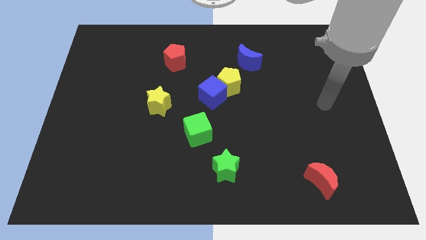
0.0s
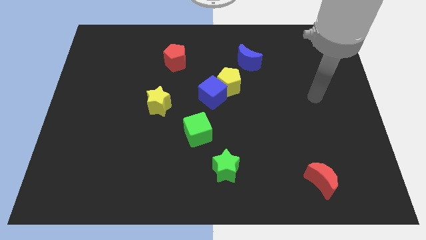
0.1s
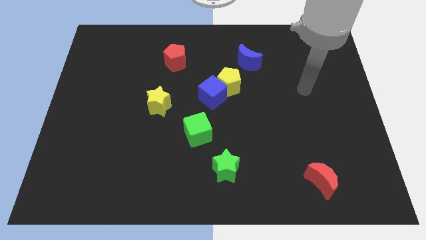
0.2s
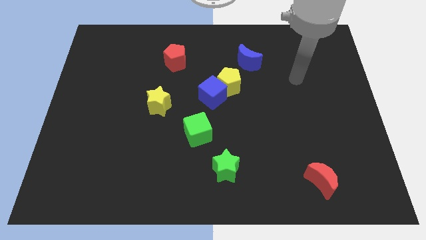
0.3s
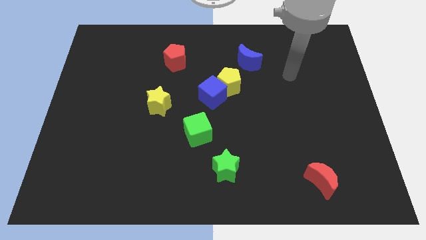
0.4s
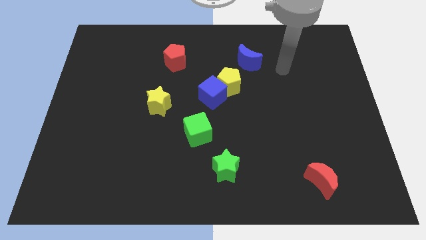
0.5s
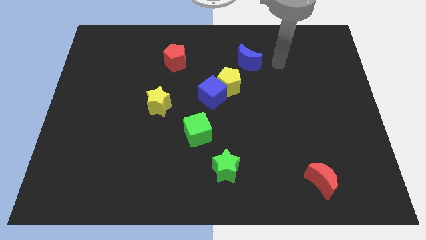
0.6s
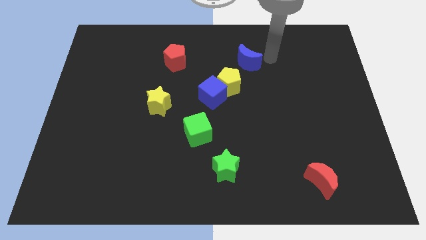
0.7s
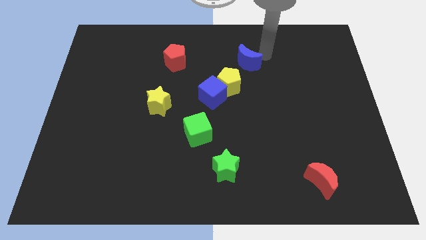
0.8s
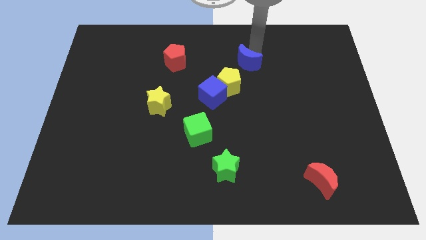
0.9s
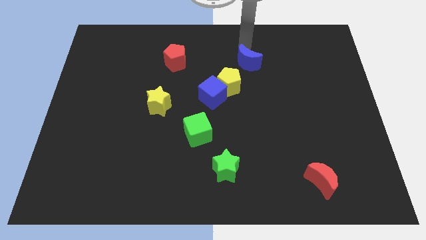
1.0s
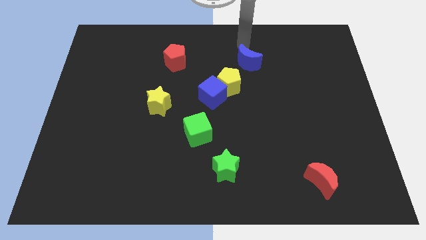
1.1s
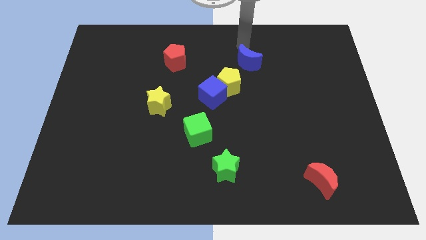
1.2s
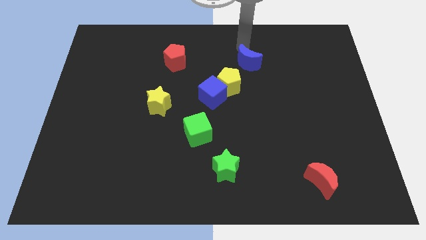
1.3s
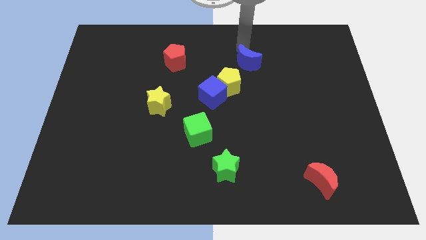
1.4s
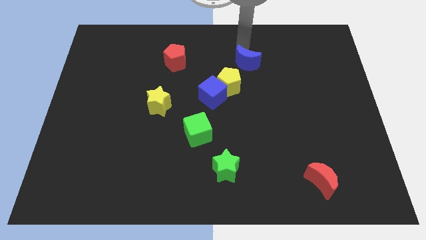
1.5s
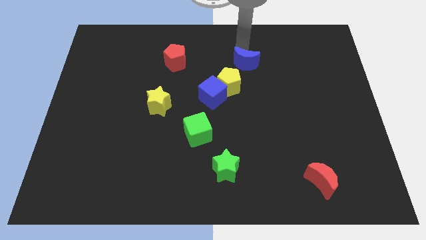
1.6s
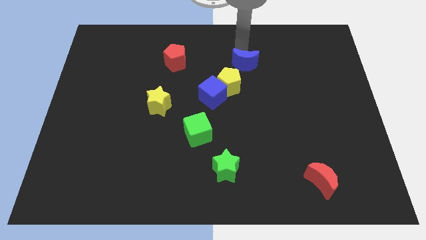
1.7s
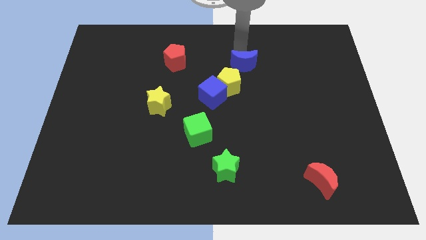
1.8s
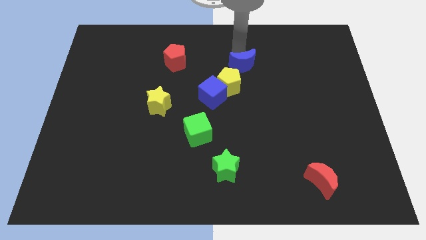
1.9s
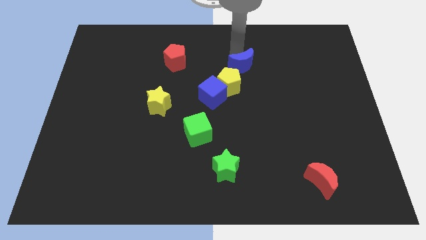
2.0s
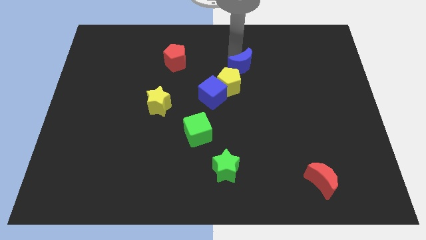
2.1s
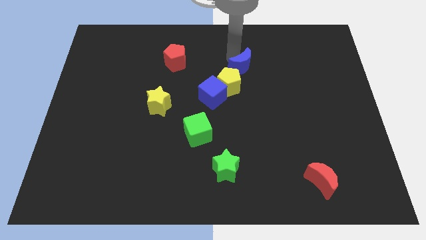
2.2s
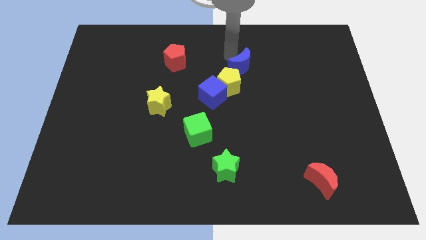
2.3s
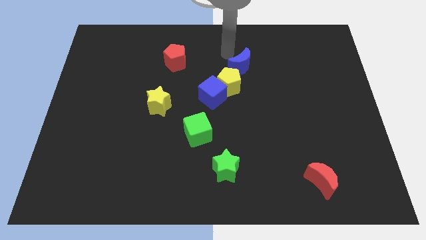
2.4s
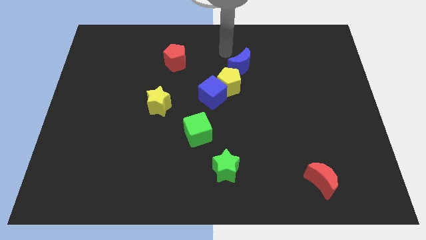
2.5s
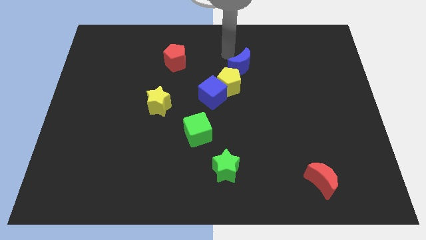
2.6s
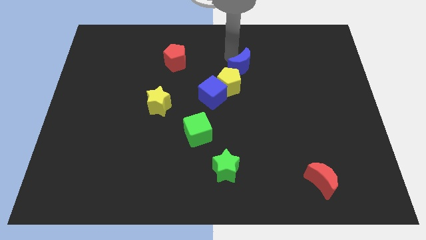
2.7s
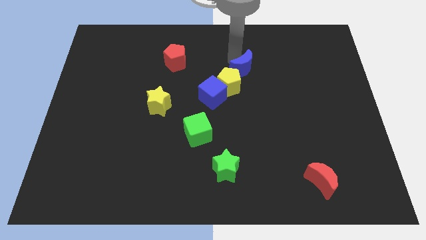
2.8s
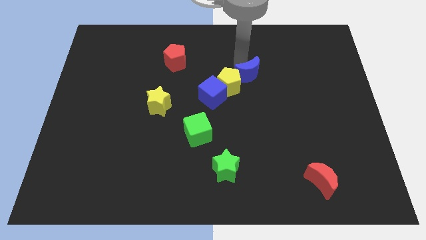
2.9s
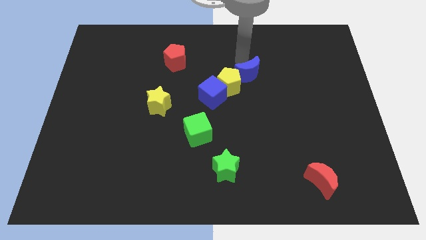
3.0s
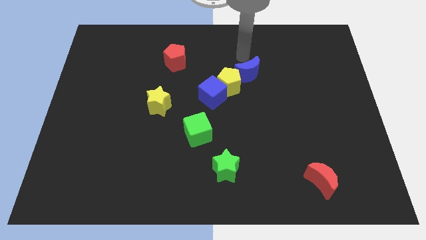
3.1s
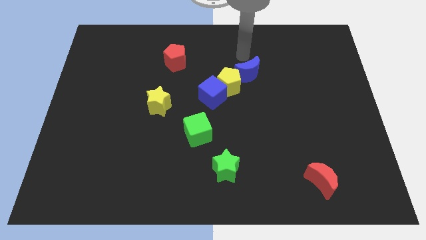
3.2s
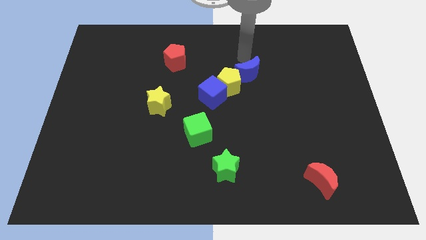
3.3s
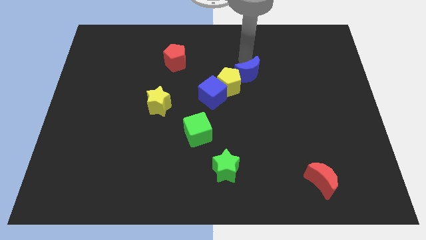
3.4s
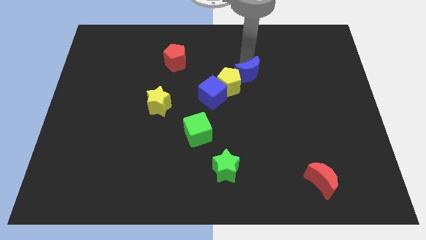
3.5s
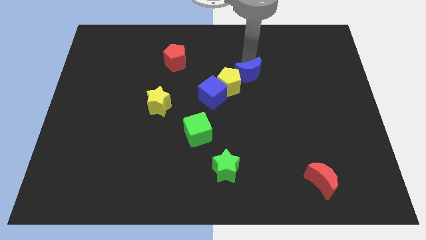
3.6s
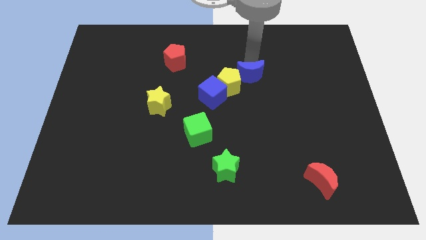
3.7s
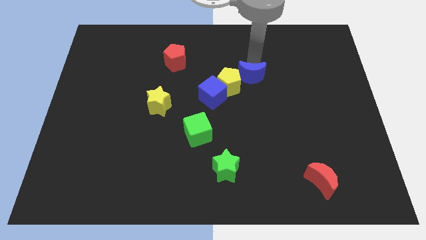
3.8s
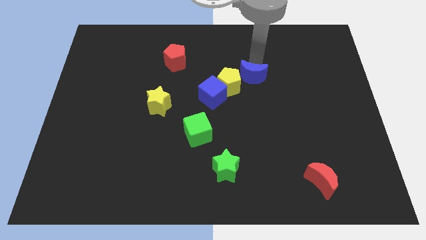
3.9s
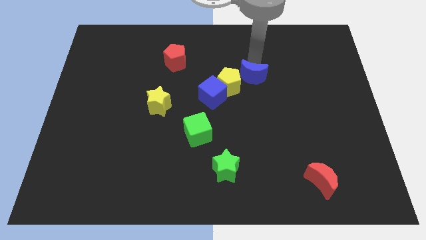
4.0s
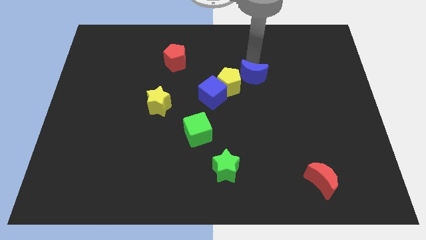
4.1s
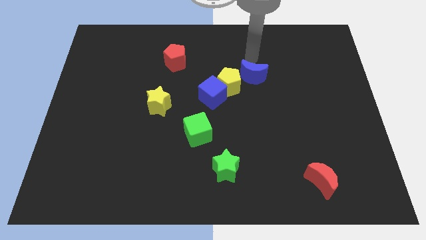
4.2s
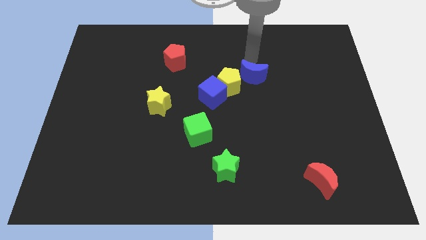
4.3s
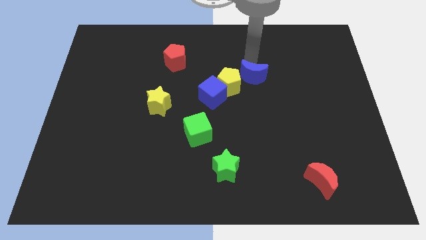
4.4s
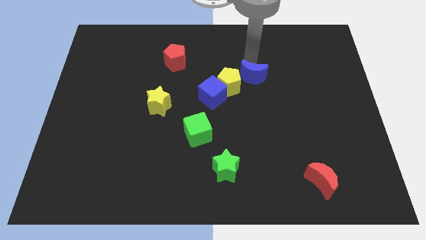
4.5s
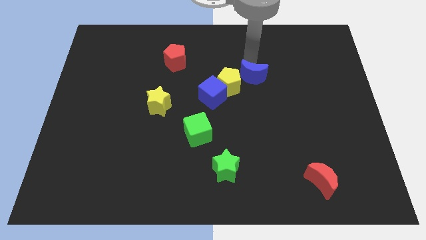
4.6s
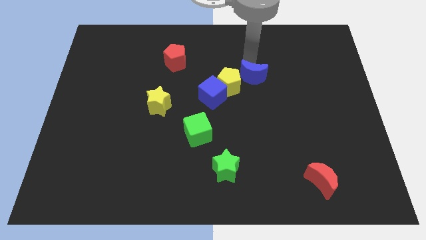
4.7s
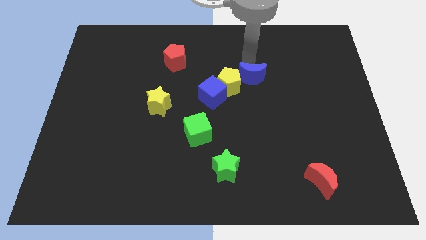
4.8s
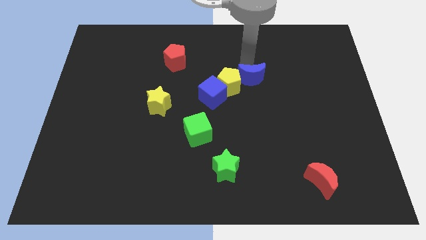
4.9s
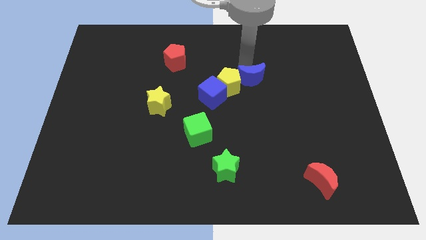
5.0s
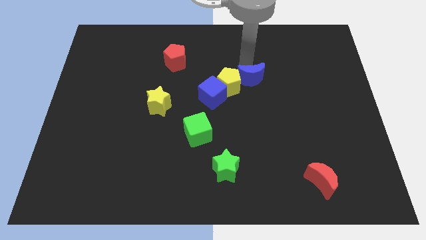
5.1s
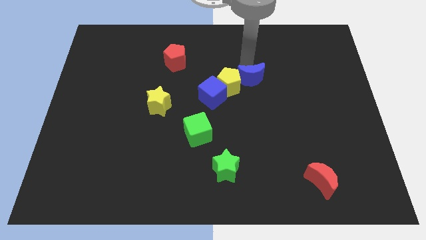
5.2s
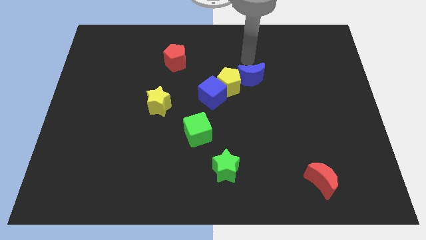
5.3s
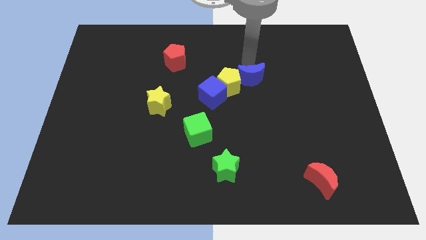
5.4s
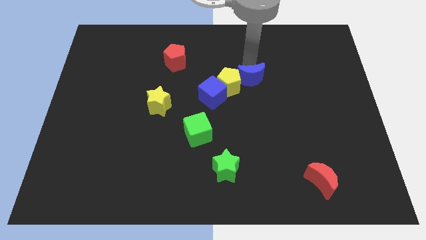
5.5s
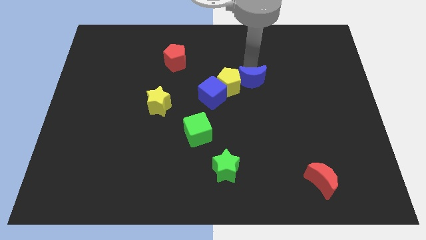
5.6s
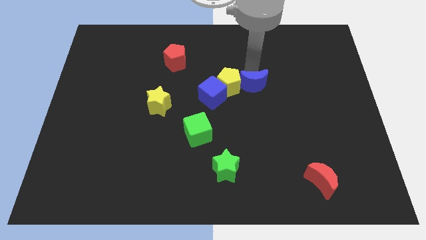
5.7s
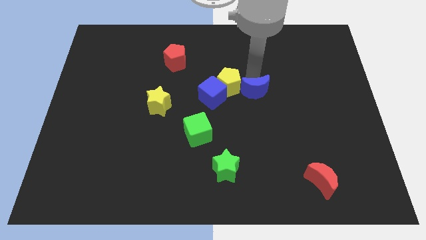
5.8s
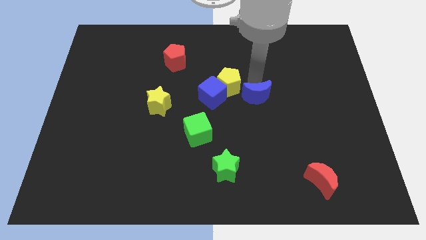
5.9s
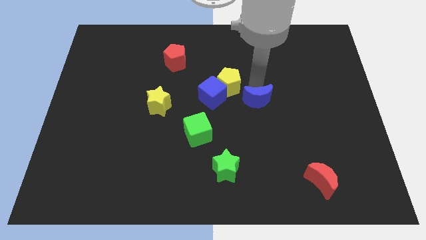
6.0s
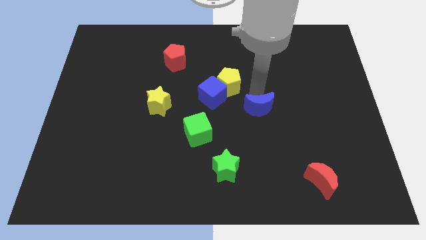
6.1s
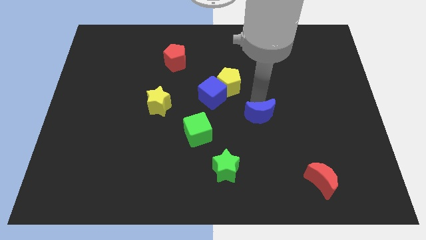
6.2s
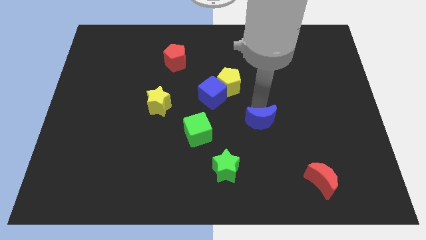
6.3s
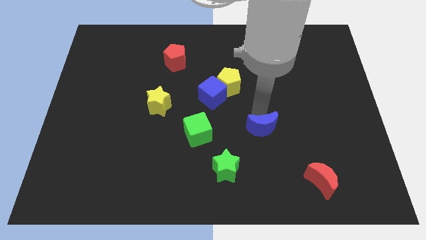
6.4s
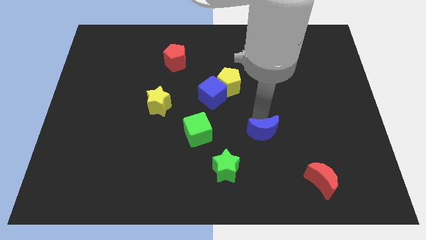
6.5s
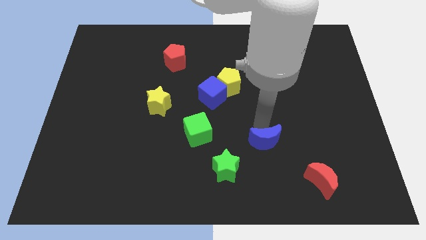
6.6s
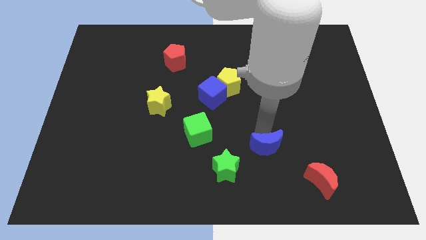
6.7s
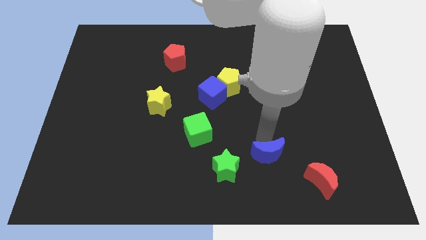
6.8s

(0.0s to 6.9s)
slide the blue moon to the right of the green star

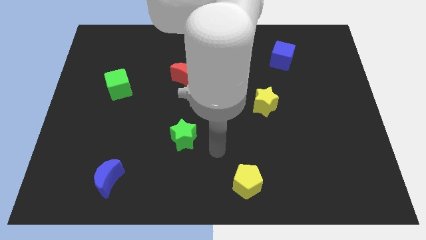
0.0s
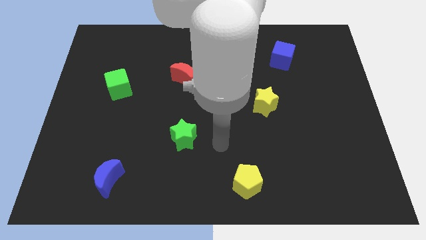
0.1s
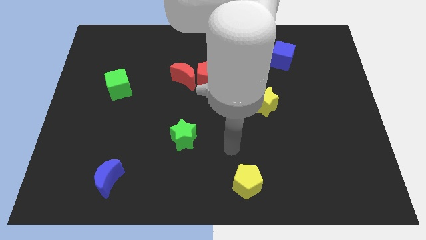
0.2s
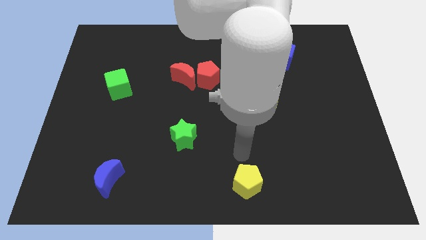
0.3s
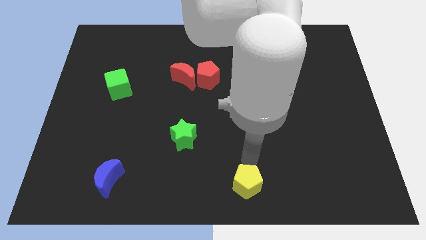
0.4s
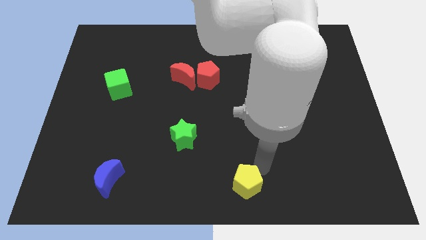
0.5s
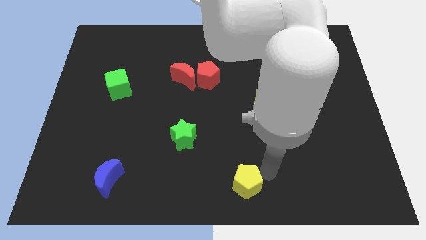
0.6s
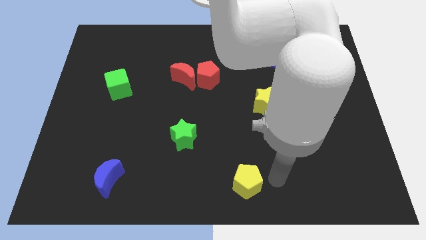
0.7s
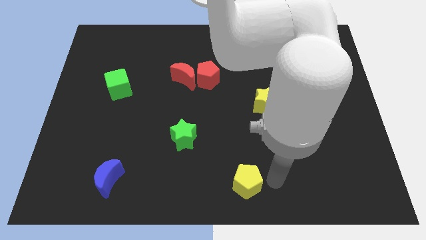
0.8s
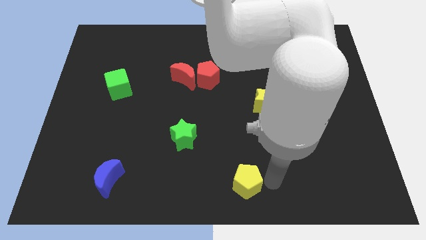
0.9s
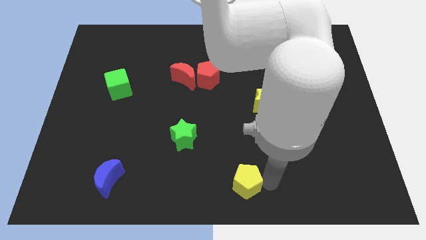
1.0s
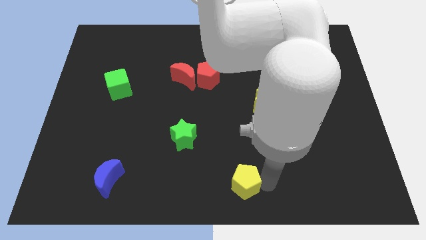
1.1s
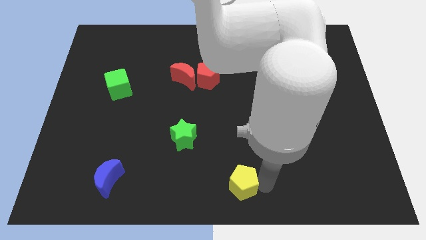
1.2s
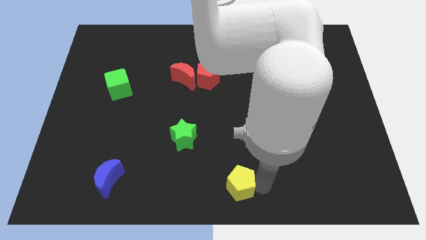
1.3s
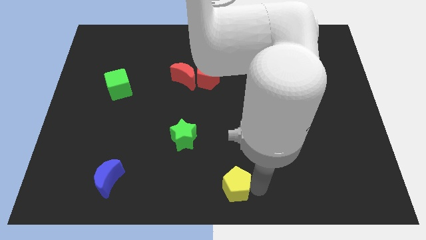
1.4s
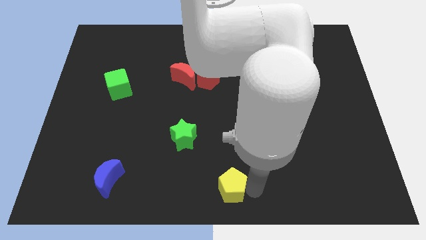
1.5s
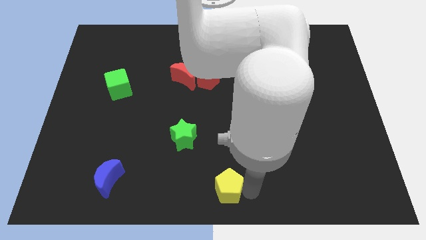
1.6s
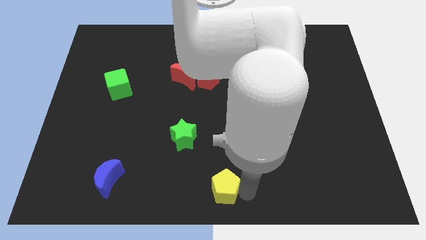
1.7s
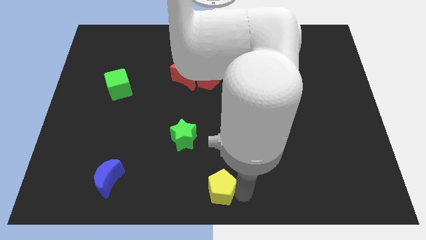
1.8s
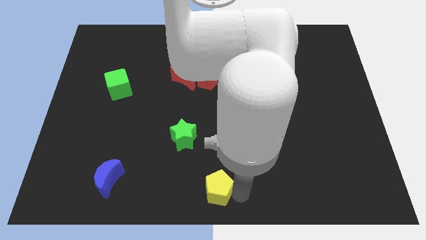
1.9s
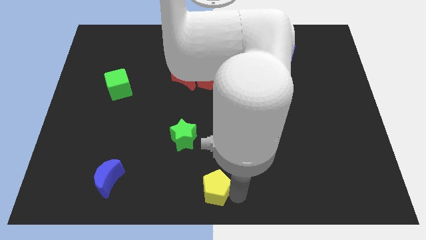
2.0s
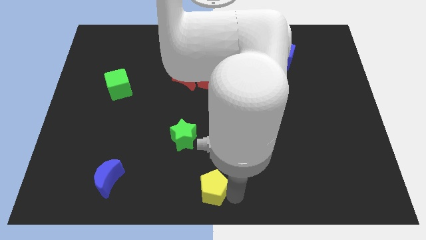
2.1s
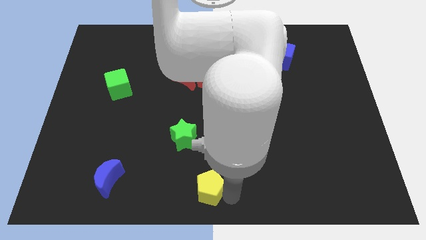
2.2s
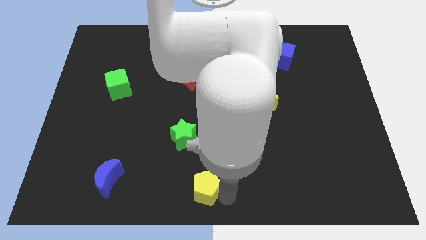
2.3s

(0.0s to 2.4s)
slide the yellow pentagon below the green star
